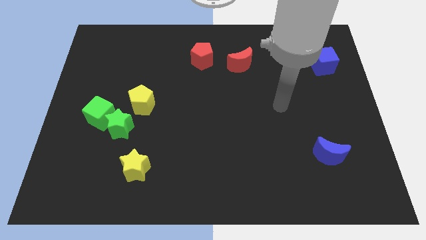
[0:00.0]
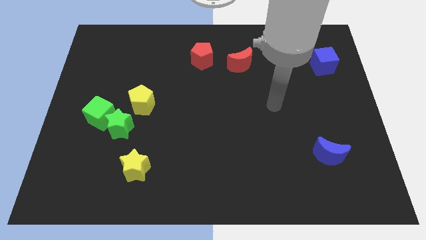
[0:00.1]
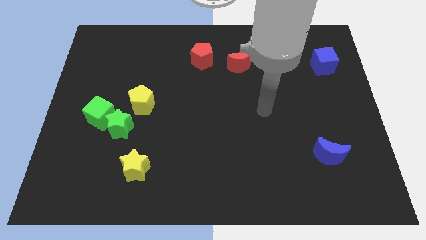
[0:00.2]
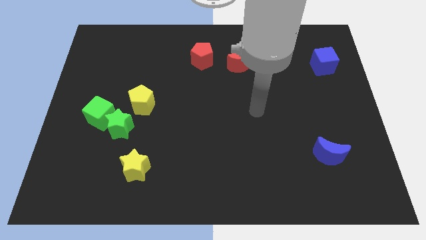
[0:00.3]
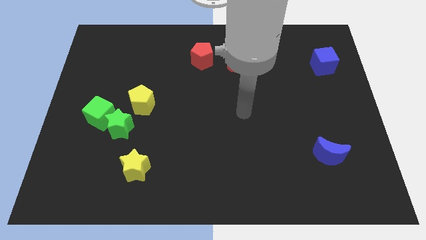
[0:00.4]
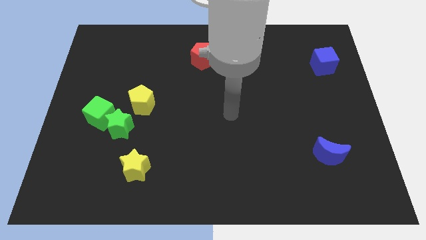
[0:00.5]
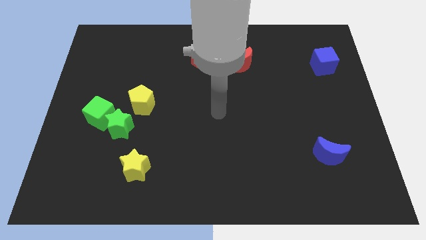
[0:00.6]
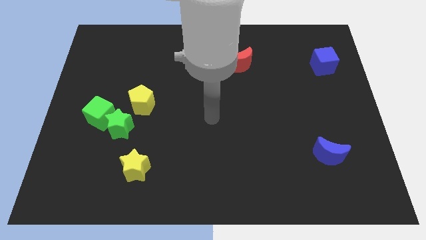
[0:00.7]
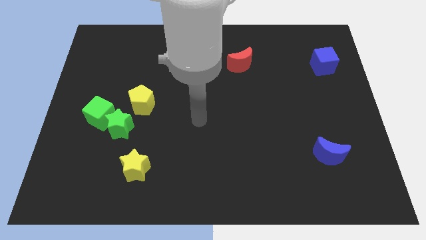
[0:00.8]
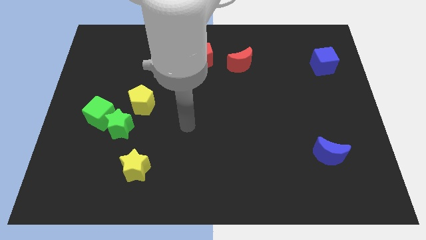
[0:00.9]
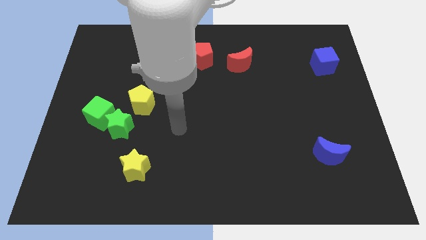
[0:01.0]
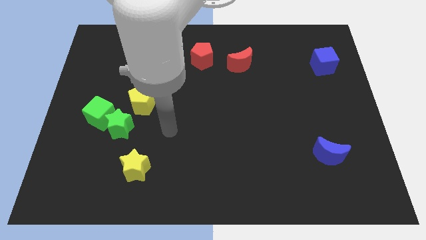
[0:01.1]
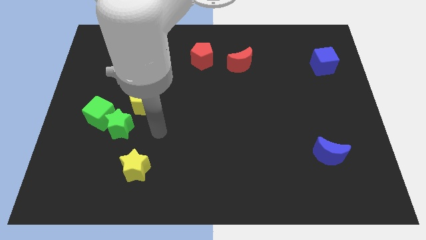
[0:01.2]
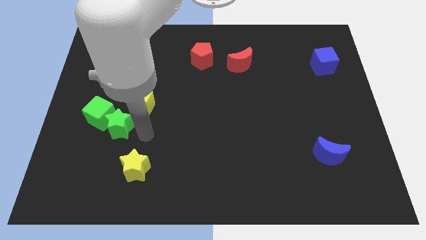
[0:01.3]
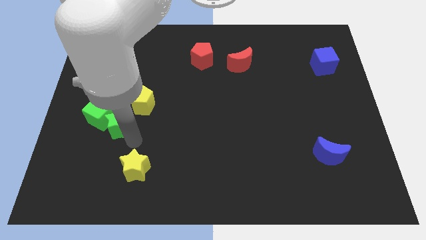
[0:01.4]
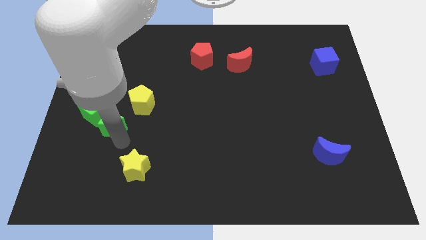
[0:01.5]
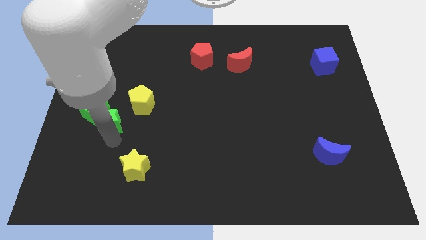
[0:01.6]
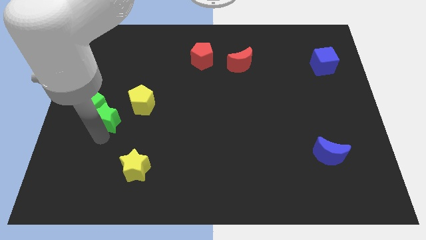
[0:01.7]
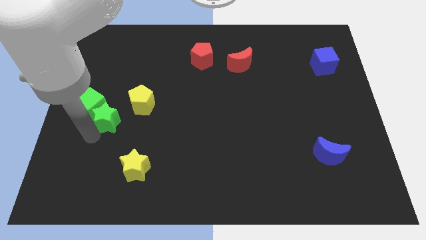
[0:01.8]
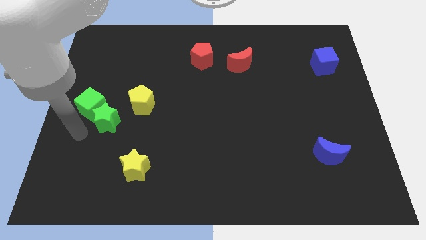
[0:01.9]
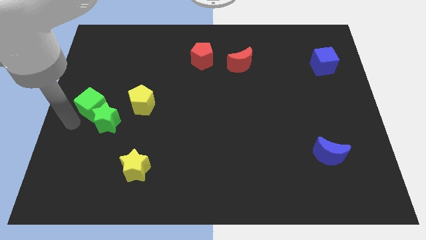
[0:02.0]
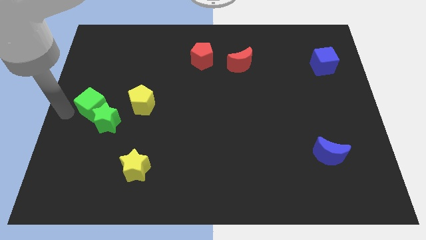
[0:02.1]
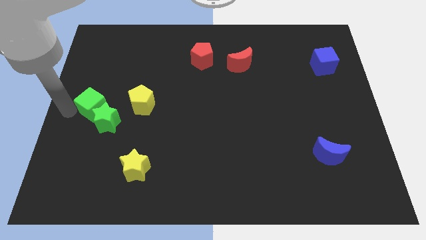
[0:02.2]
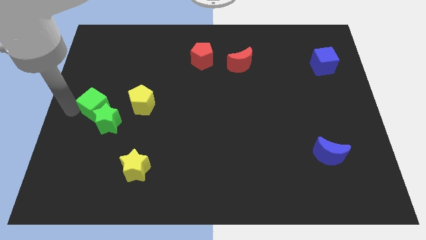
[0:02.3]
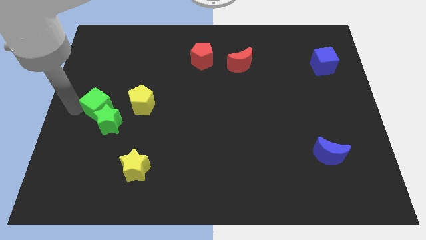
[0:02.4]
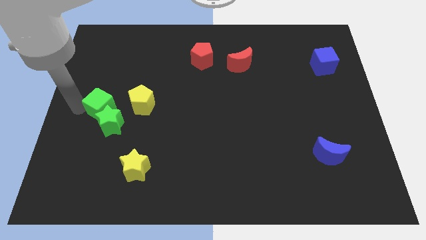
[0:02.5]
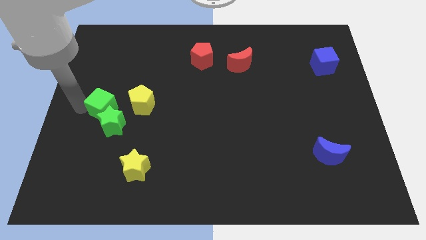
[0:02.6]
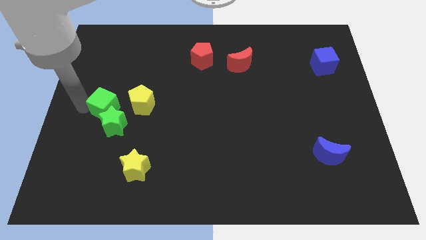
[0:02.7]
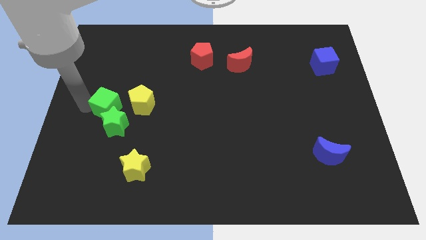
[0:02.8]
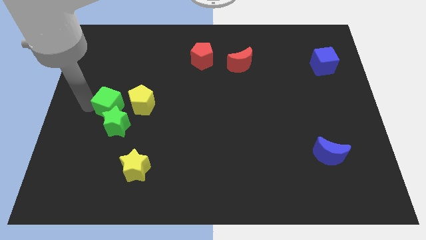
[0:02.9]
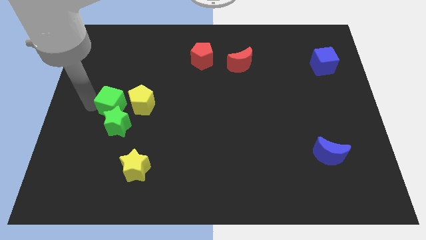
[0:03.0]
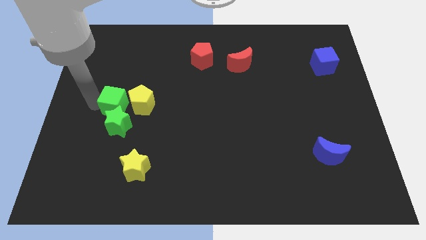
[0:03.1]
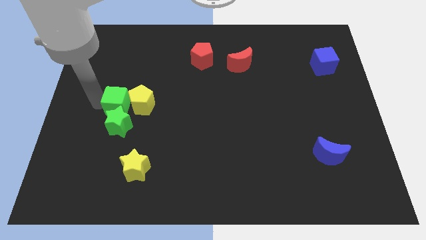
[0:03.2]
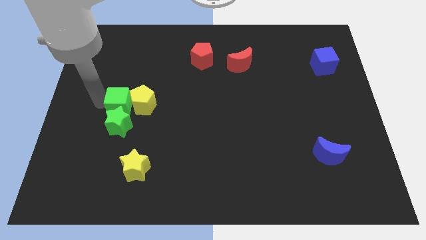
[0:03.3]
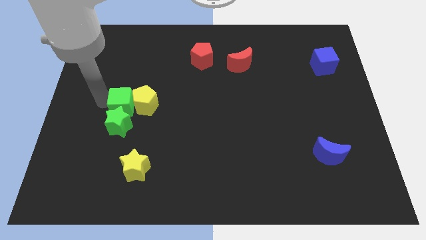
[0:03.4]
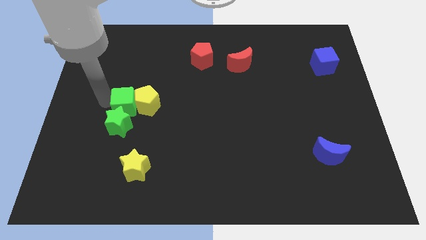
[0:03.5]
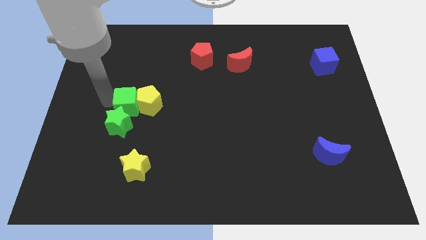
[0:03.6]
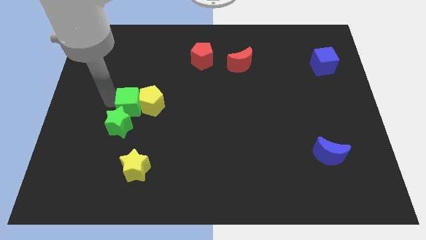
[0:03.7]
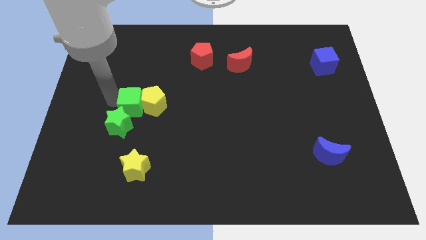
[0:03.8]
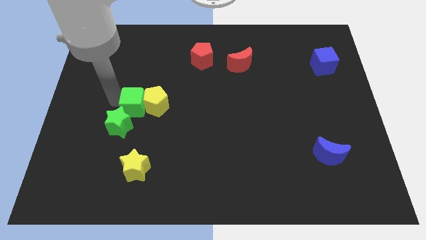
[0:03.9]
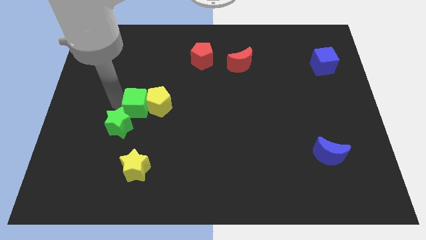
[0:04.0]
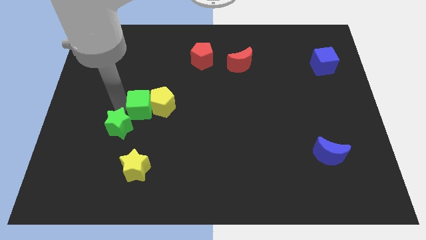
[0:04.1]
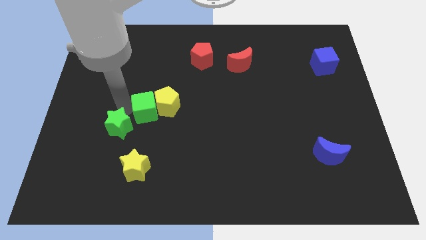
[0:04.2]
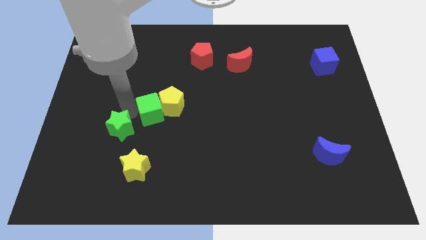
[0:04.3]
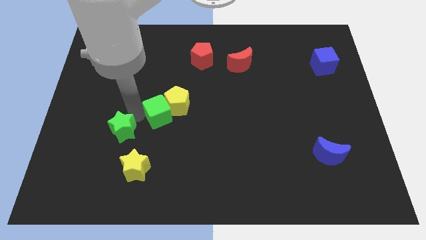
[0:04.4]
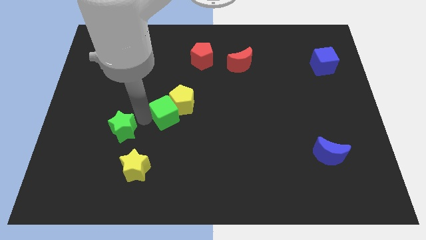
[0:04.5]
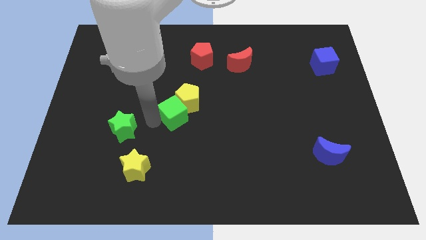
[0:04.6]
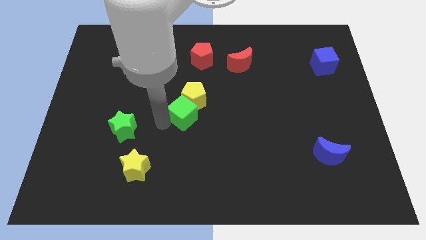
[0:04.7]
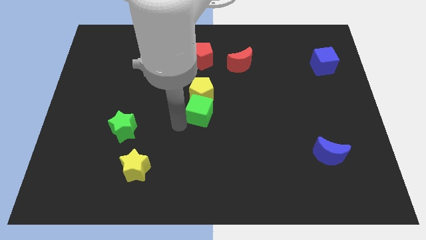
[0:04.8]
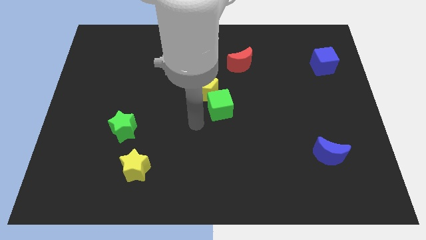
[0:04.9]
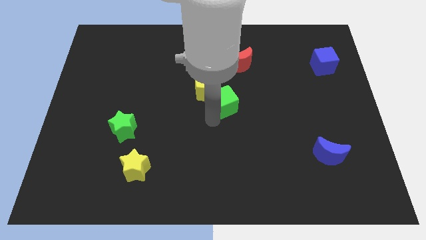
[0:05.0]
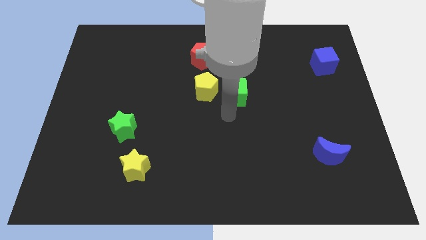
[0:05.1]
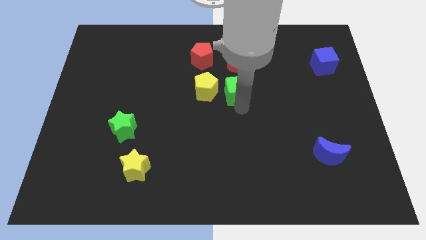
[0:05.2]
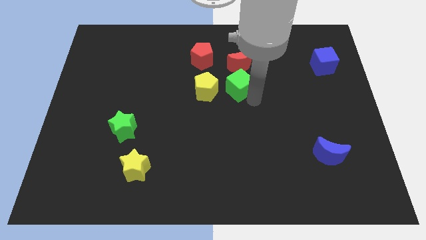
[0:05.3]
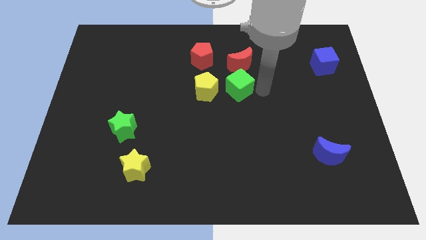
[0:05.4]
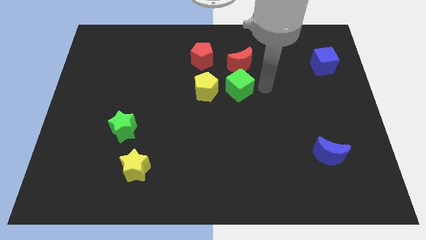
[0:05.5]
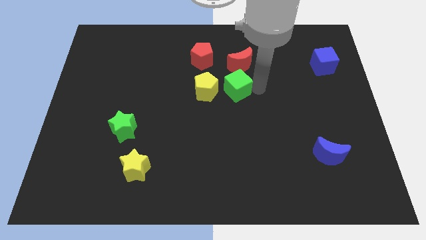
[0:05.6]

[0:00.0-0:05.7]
push the green cube to the bottom left side of the red moon
